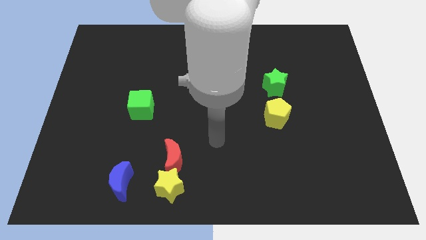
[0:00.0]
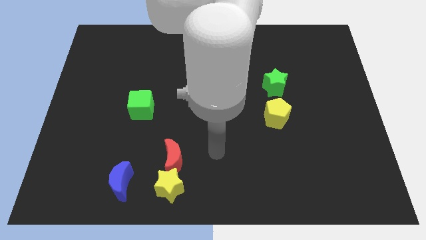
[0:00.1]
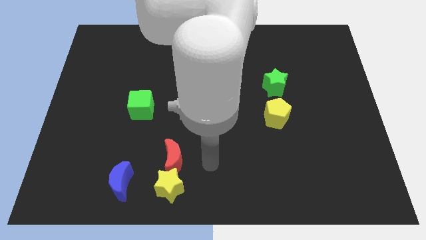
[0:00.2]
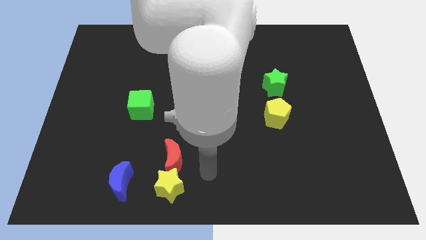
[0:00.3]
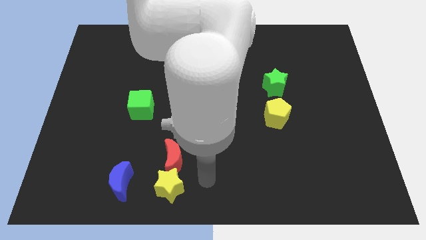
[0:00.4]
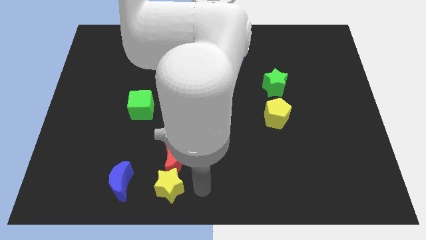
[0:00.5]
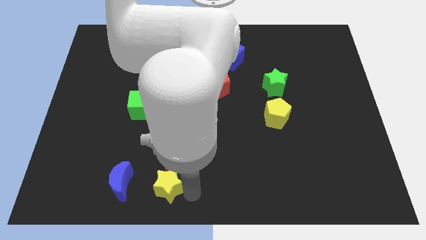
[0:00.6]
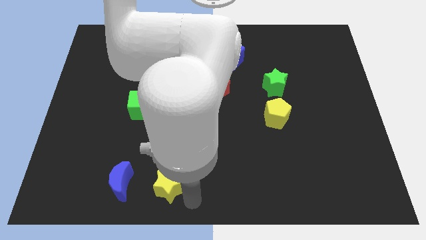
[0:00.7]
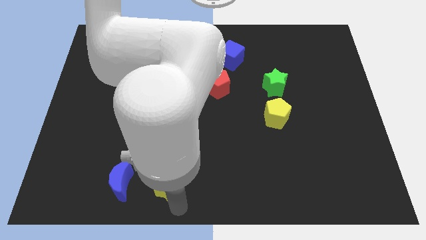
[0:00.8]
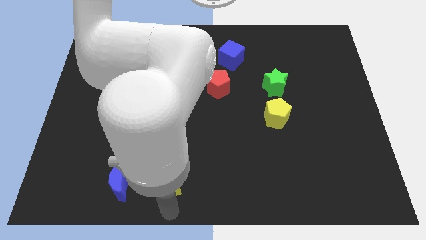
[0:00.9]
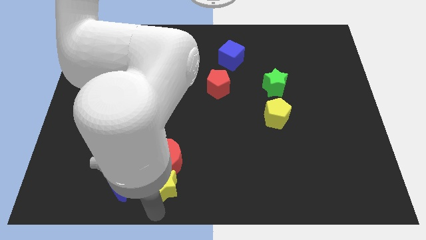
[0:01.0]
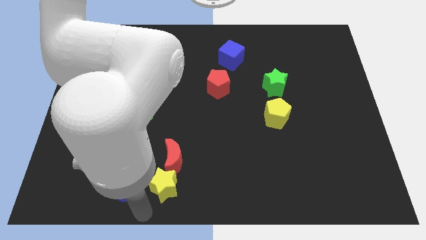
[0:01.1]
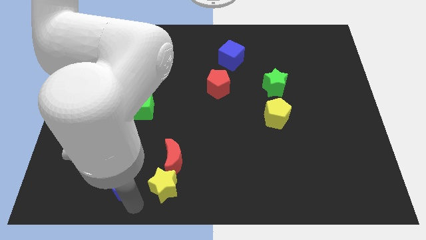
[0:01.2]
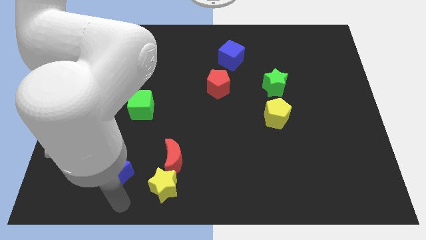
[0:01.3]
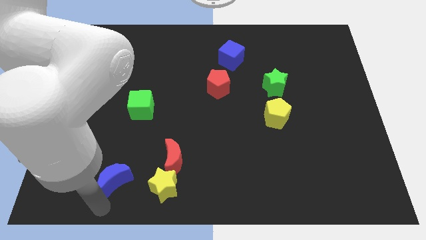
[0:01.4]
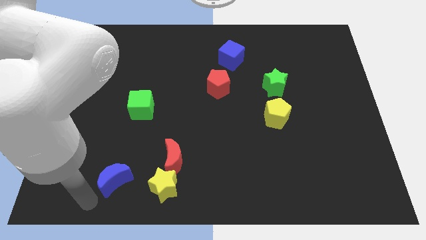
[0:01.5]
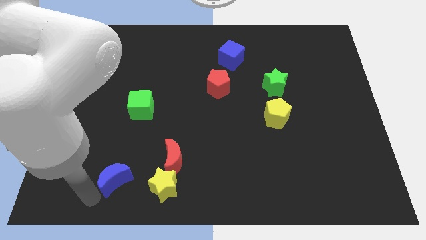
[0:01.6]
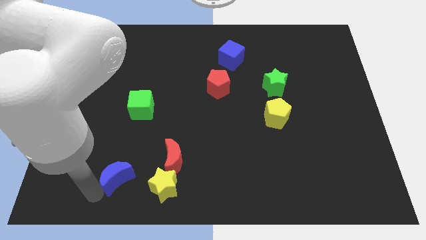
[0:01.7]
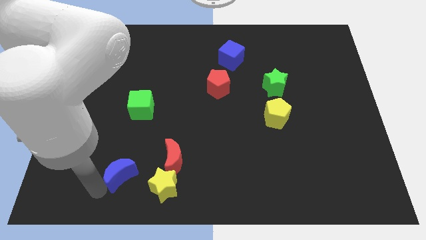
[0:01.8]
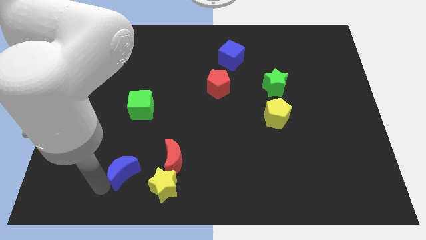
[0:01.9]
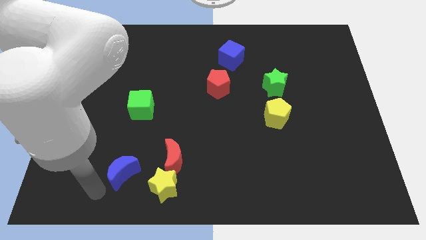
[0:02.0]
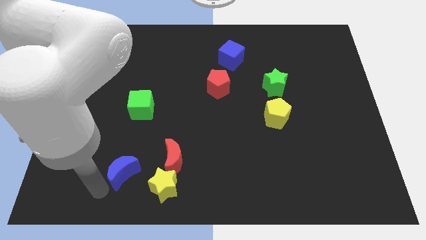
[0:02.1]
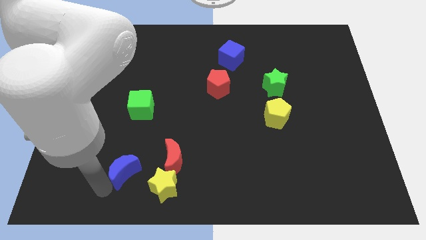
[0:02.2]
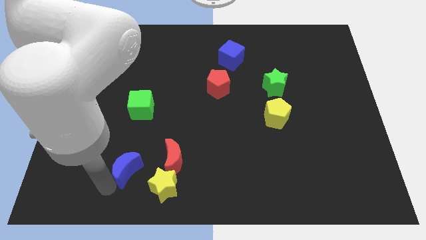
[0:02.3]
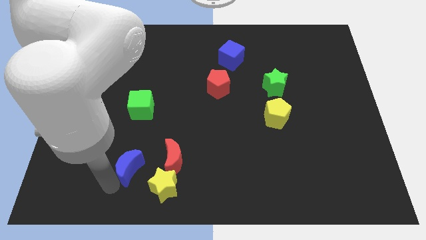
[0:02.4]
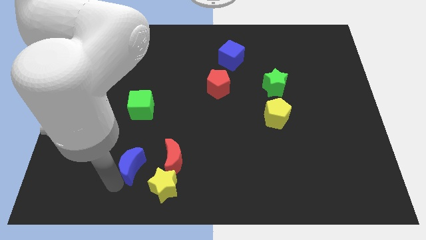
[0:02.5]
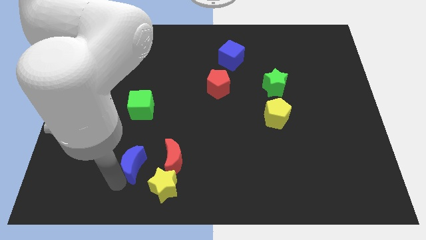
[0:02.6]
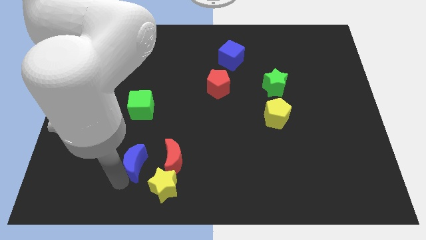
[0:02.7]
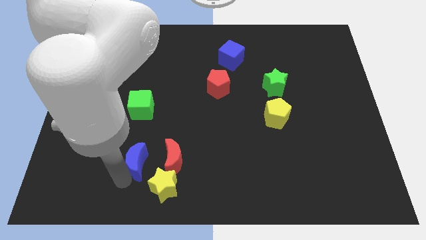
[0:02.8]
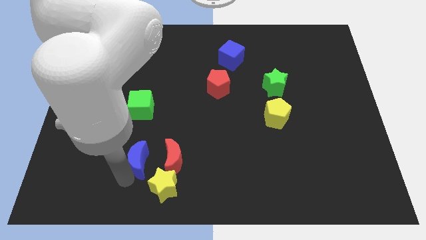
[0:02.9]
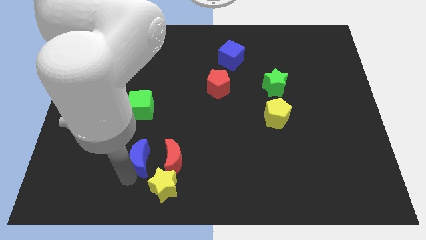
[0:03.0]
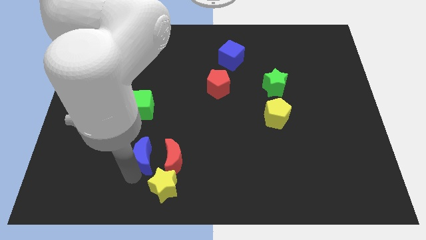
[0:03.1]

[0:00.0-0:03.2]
slightly slide the blue moon diagonally up and right

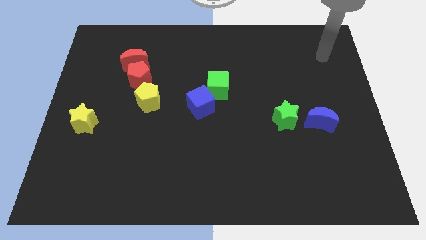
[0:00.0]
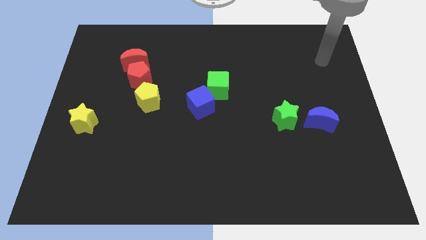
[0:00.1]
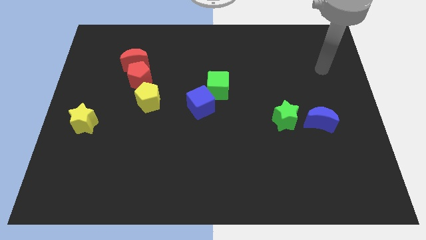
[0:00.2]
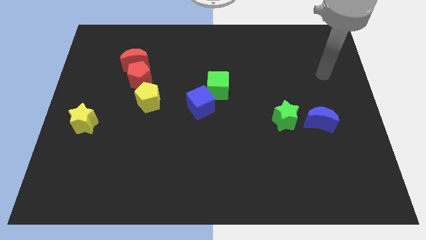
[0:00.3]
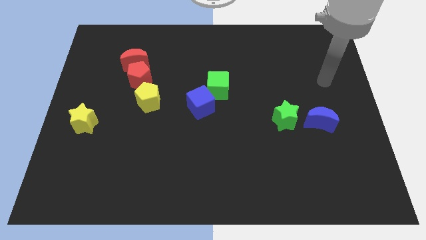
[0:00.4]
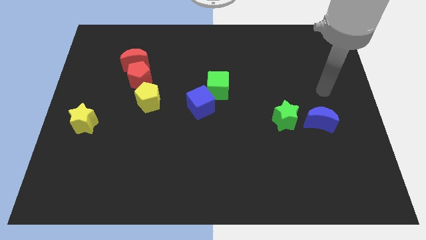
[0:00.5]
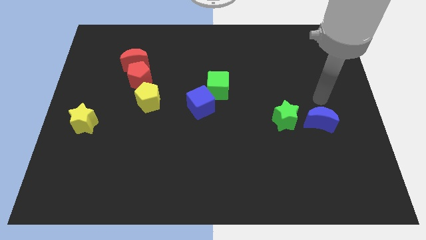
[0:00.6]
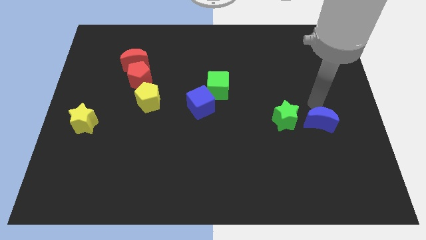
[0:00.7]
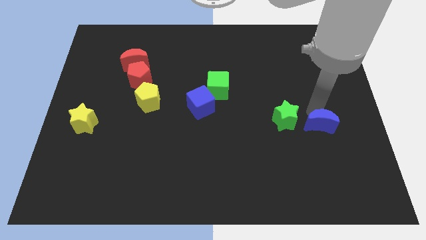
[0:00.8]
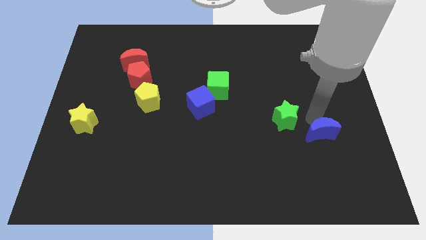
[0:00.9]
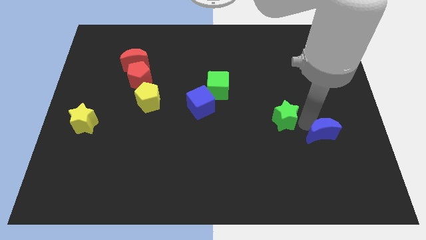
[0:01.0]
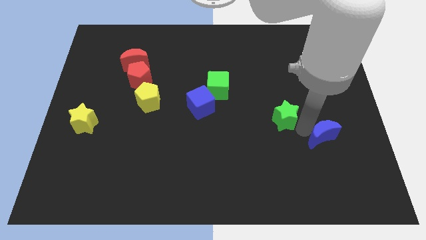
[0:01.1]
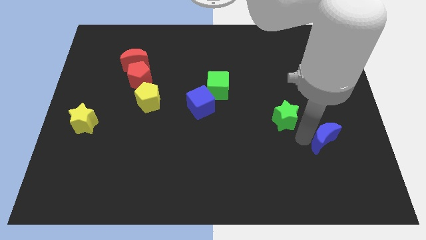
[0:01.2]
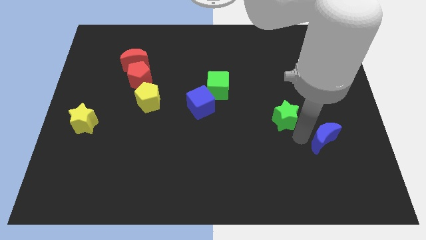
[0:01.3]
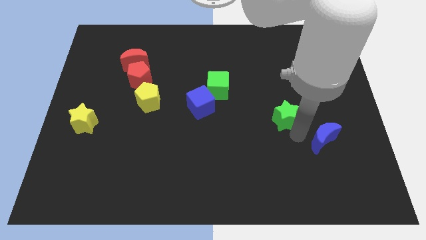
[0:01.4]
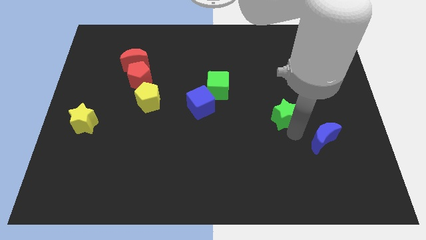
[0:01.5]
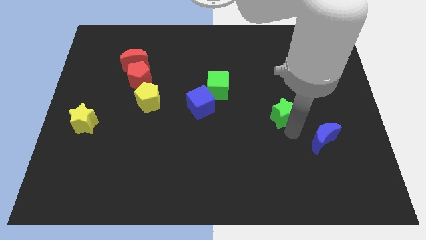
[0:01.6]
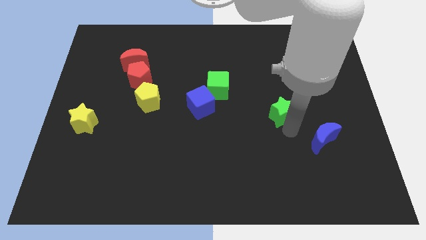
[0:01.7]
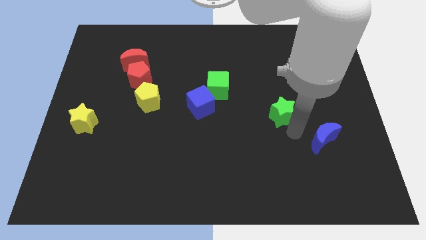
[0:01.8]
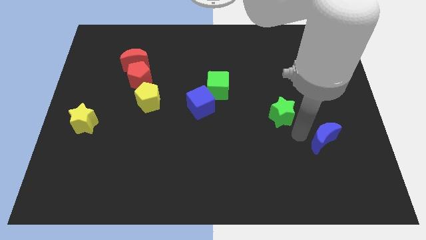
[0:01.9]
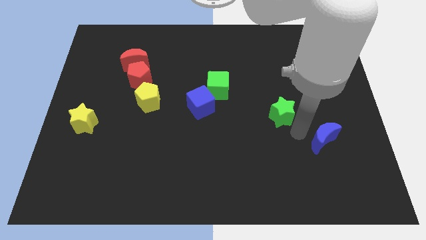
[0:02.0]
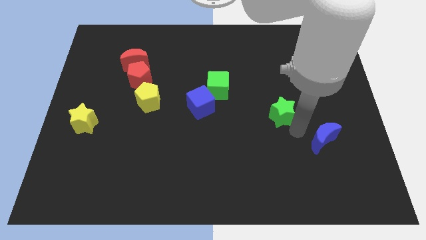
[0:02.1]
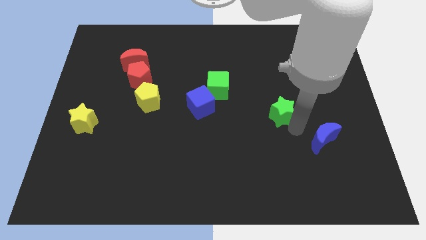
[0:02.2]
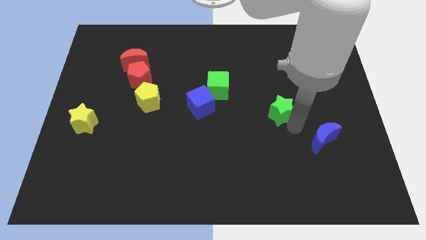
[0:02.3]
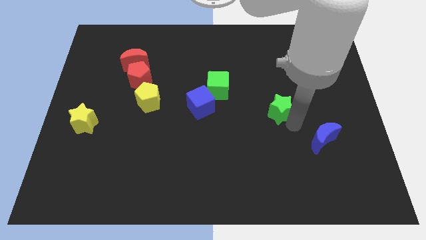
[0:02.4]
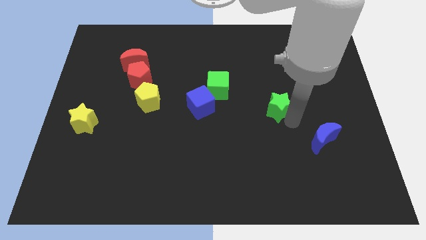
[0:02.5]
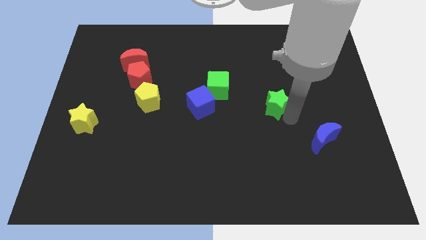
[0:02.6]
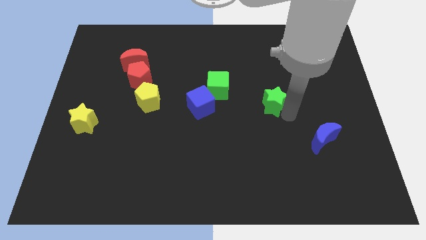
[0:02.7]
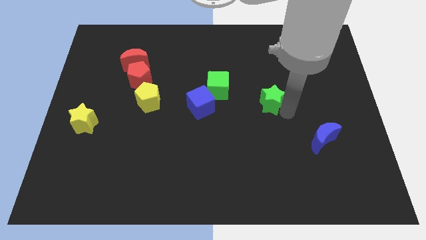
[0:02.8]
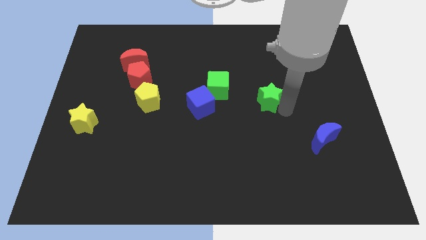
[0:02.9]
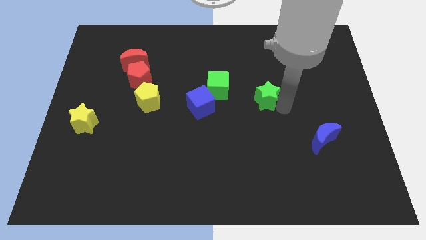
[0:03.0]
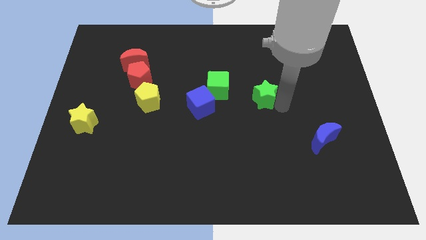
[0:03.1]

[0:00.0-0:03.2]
slide the green star up and to the left diagonally a bit

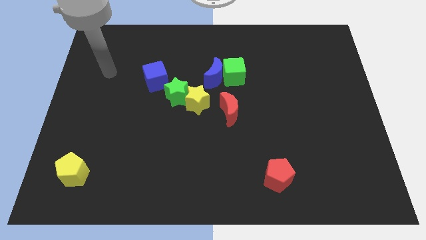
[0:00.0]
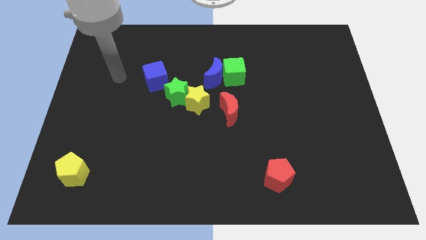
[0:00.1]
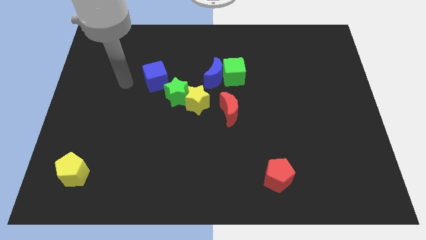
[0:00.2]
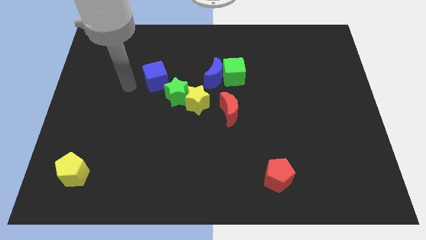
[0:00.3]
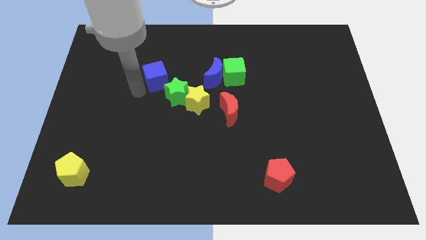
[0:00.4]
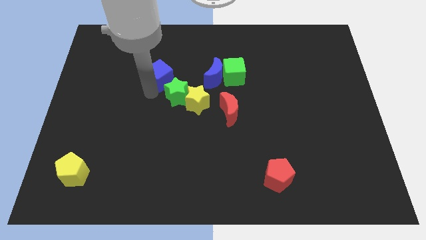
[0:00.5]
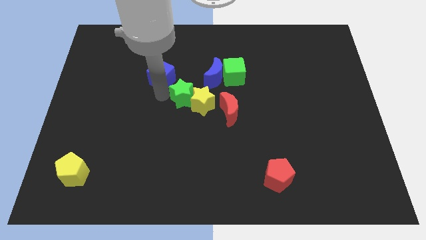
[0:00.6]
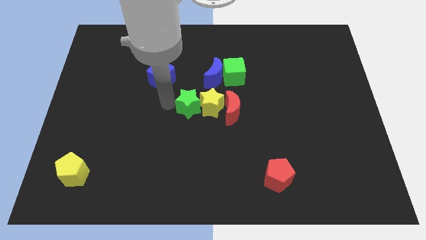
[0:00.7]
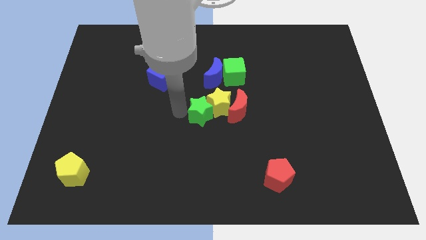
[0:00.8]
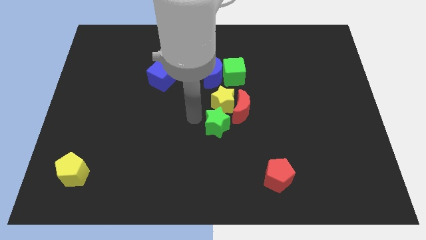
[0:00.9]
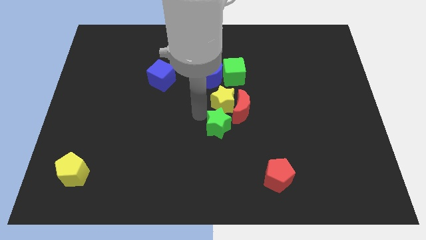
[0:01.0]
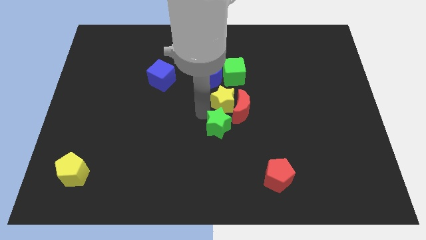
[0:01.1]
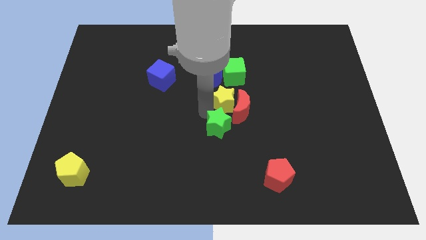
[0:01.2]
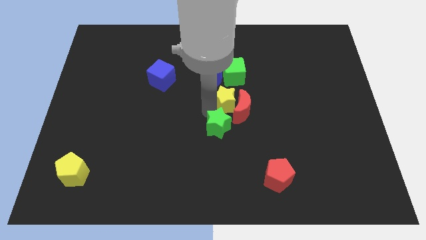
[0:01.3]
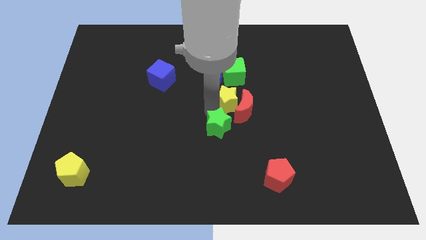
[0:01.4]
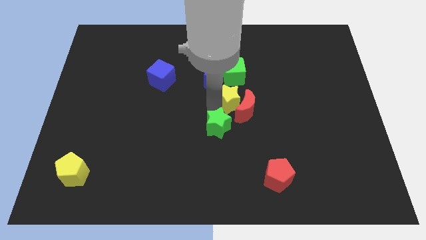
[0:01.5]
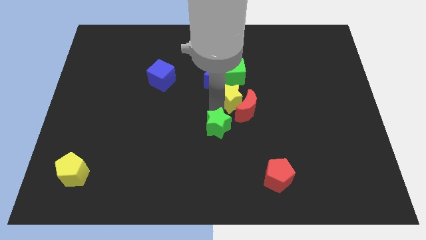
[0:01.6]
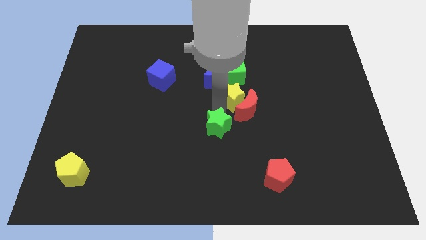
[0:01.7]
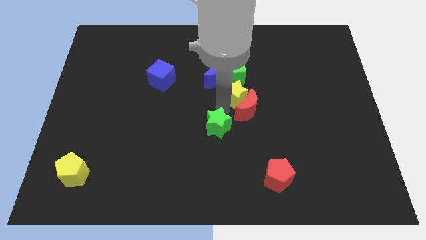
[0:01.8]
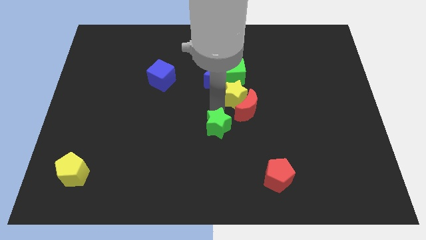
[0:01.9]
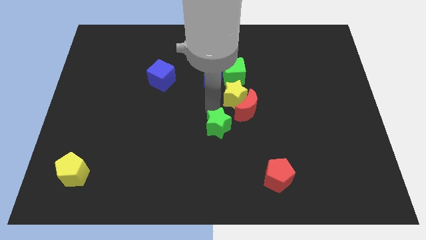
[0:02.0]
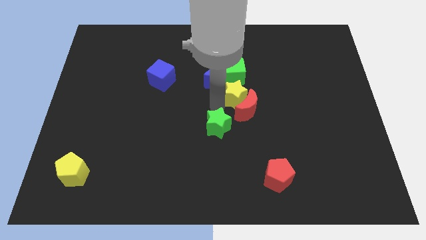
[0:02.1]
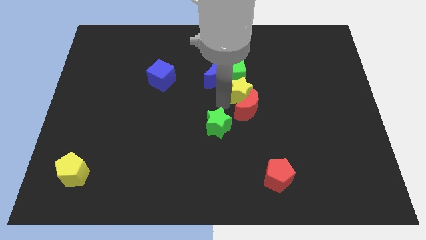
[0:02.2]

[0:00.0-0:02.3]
slightly push the yellow star up and then to the right
